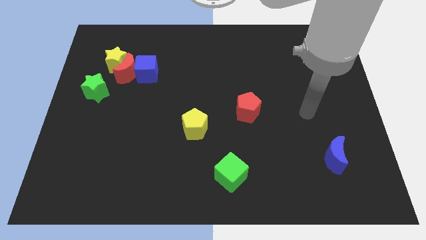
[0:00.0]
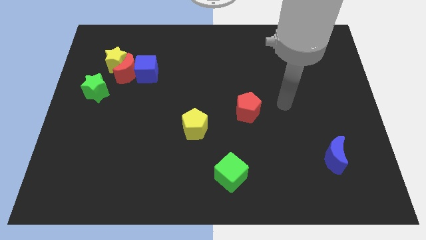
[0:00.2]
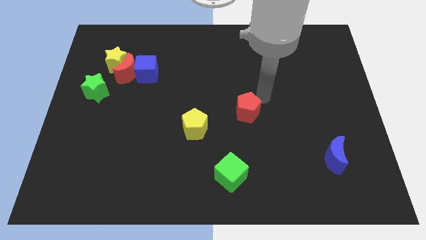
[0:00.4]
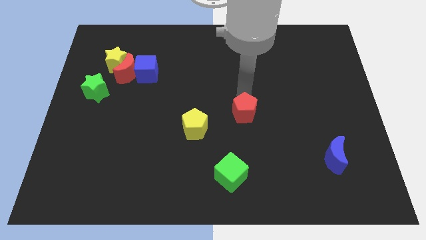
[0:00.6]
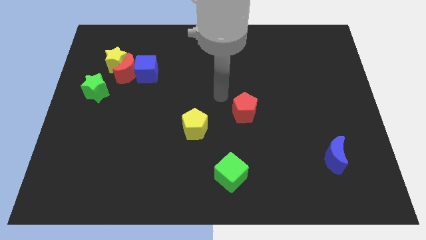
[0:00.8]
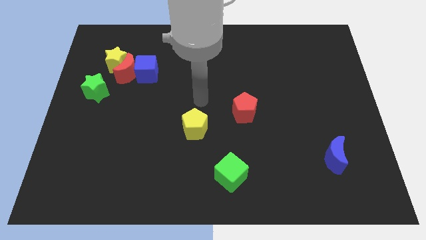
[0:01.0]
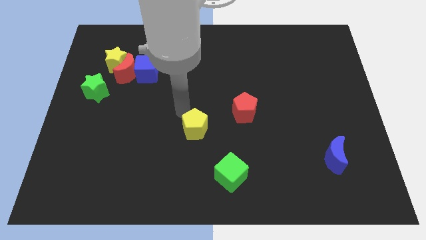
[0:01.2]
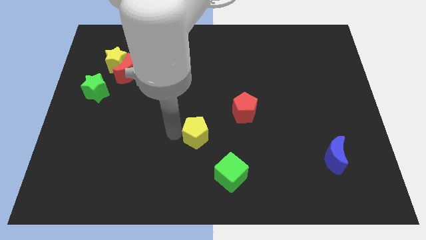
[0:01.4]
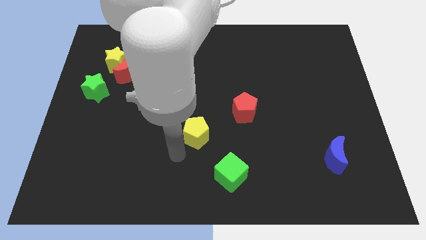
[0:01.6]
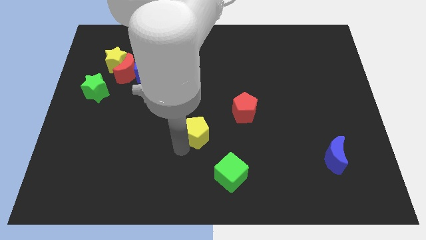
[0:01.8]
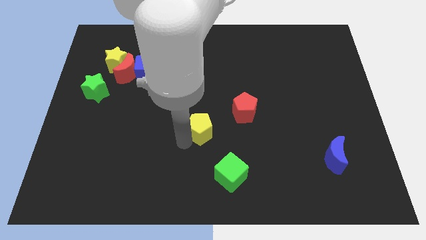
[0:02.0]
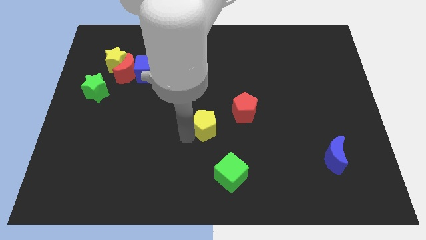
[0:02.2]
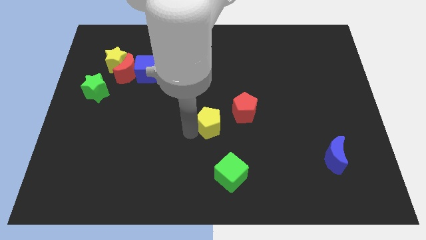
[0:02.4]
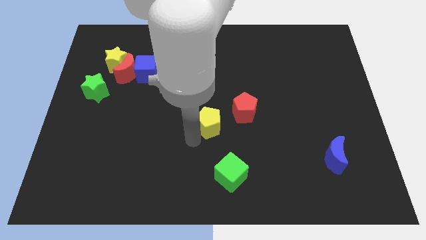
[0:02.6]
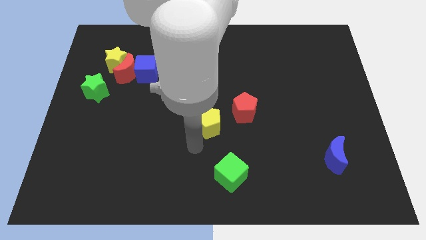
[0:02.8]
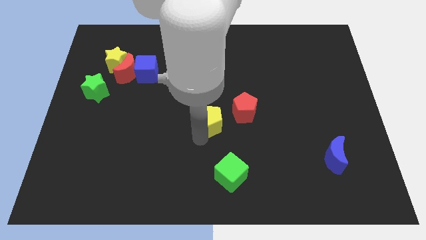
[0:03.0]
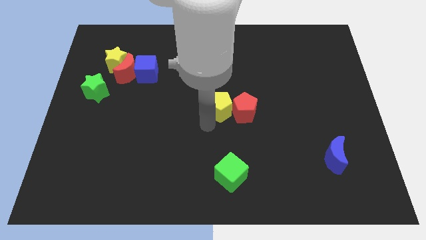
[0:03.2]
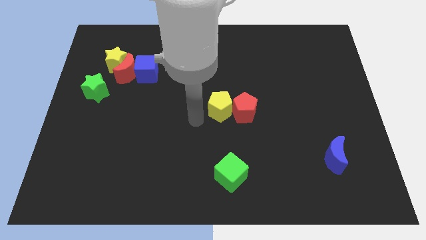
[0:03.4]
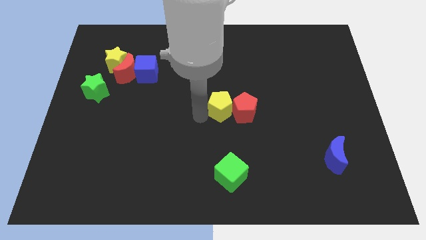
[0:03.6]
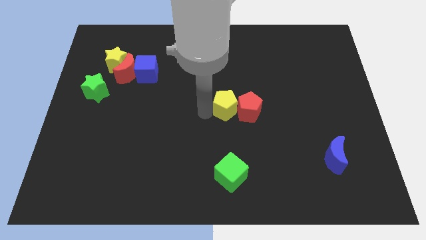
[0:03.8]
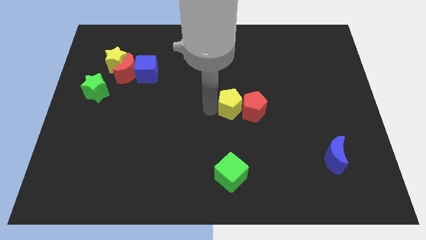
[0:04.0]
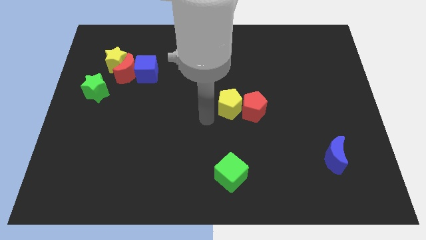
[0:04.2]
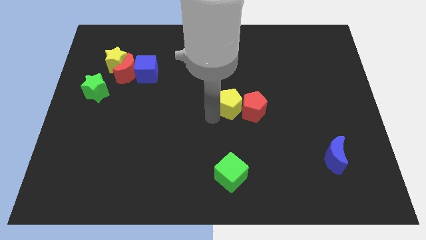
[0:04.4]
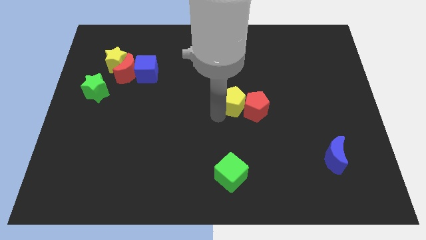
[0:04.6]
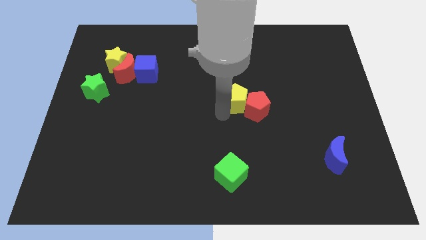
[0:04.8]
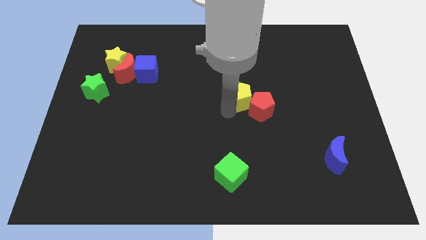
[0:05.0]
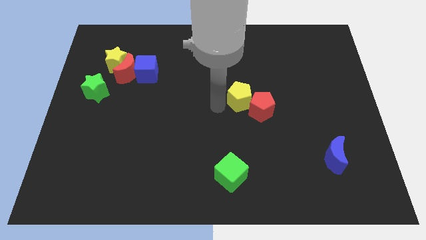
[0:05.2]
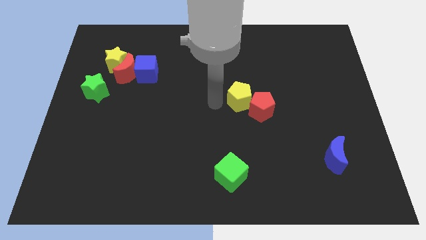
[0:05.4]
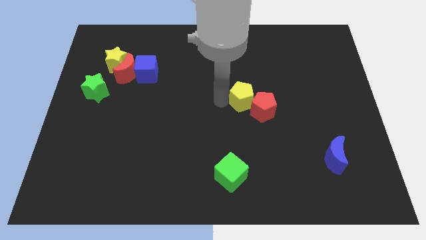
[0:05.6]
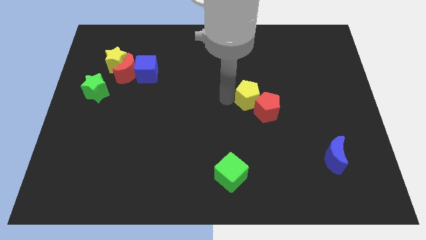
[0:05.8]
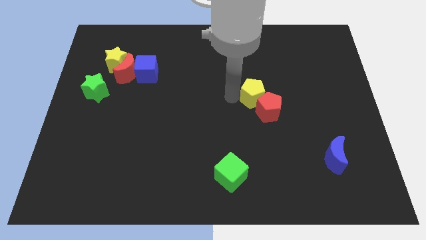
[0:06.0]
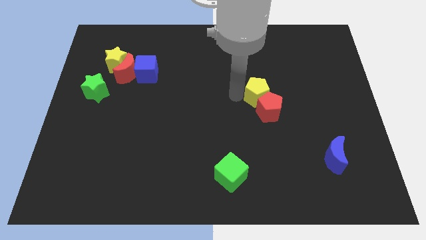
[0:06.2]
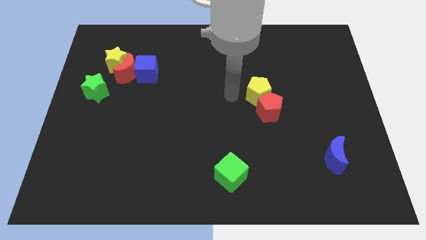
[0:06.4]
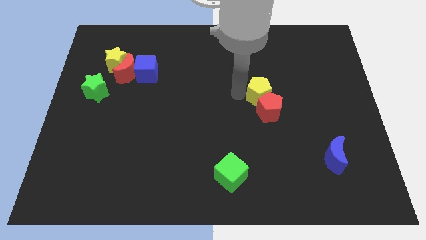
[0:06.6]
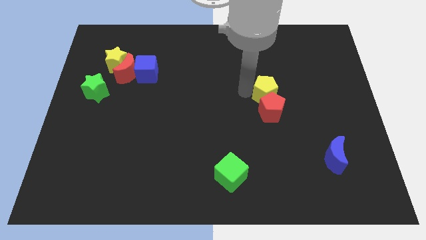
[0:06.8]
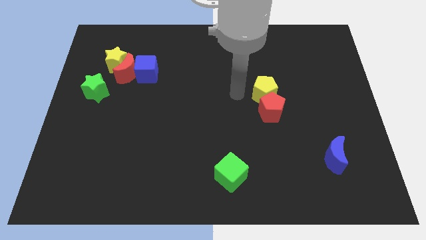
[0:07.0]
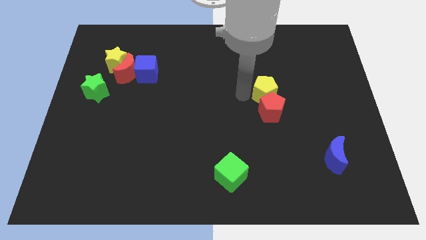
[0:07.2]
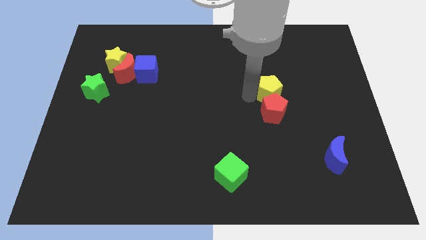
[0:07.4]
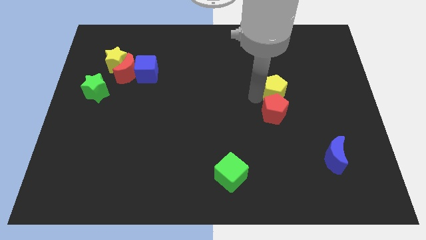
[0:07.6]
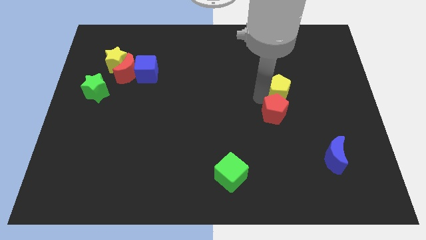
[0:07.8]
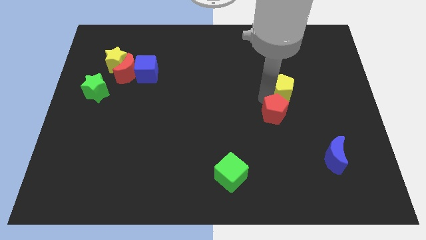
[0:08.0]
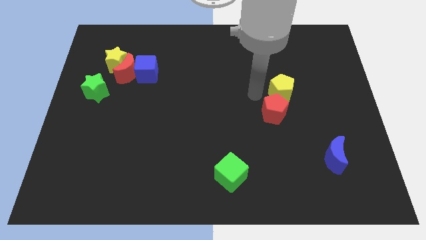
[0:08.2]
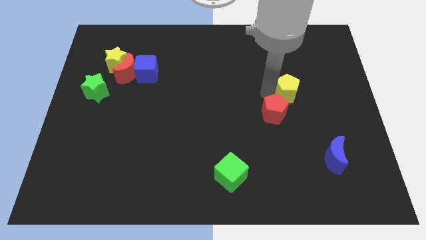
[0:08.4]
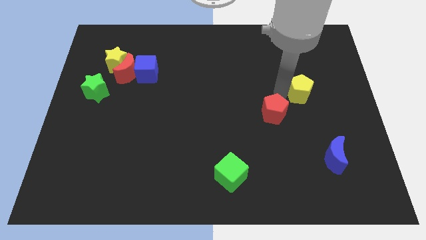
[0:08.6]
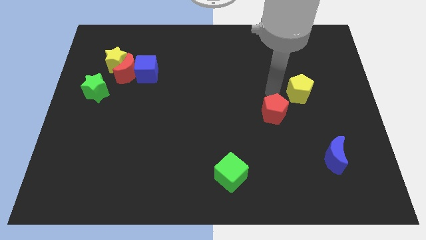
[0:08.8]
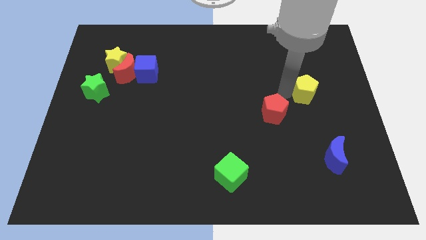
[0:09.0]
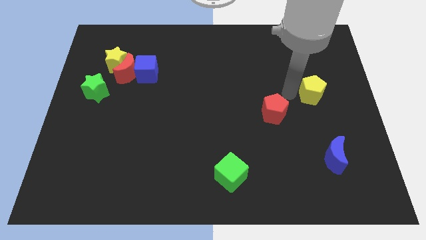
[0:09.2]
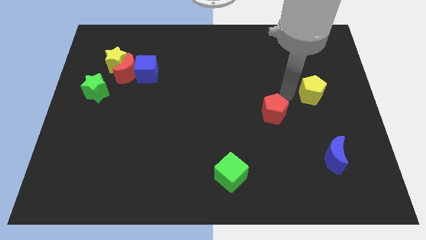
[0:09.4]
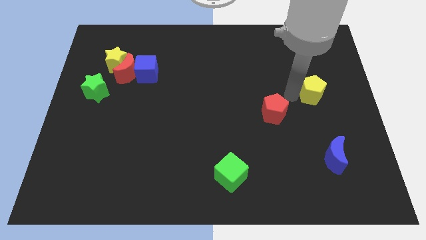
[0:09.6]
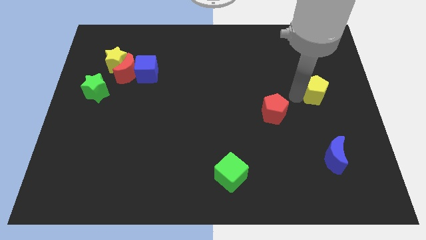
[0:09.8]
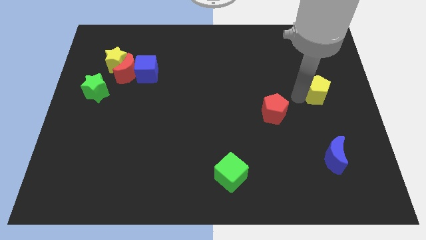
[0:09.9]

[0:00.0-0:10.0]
put the yellow pentagon to the center right

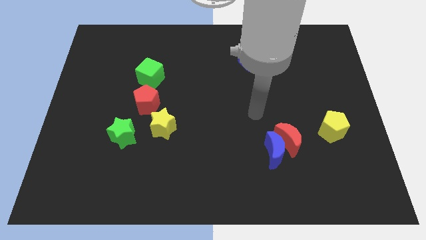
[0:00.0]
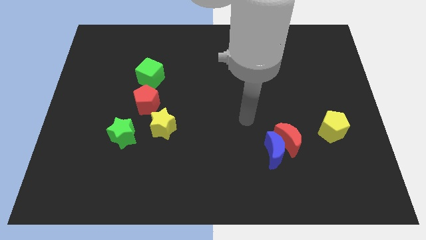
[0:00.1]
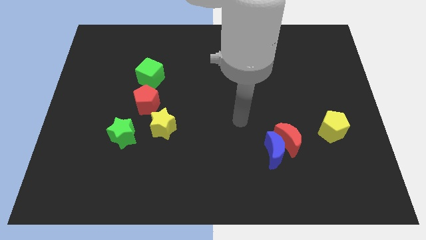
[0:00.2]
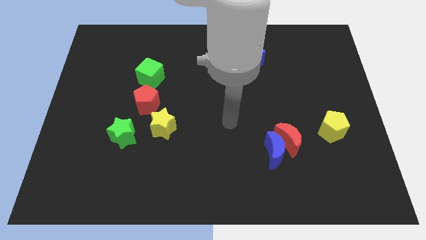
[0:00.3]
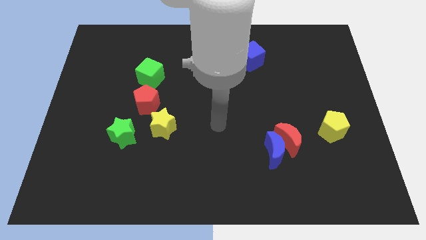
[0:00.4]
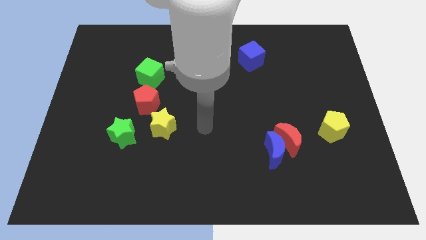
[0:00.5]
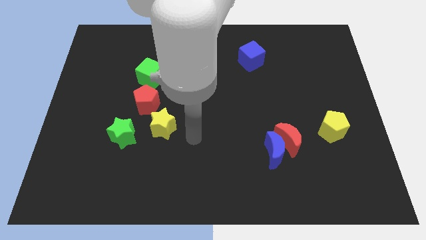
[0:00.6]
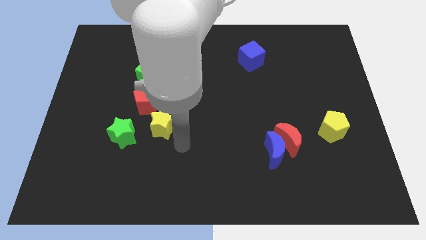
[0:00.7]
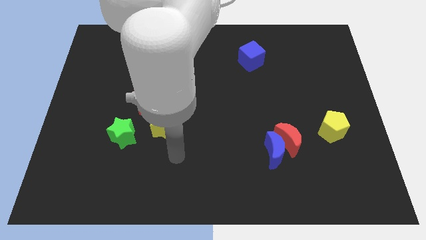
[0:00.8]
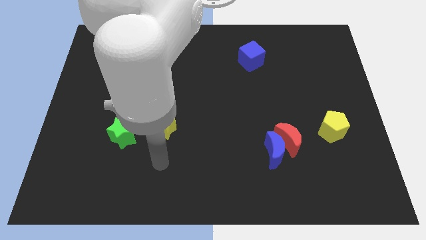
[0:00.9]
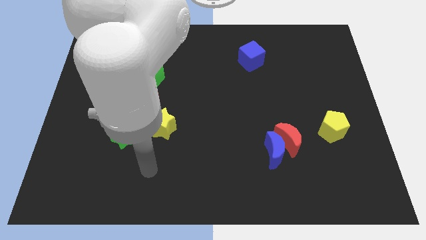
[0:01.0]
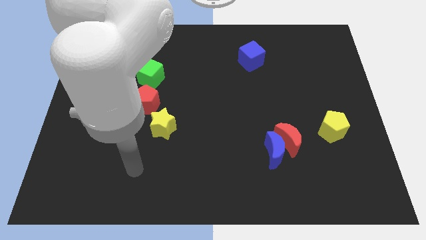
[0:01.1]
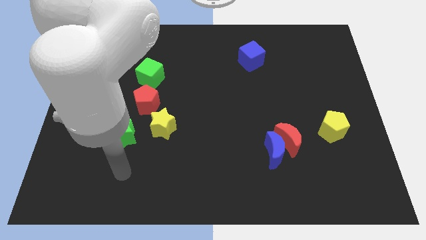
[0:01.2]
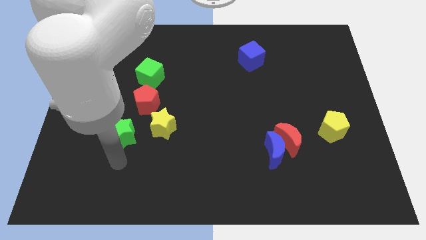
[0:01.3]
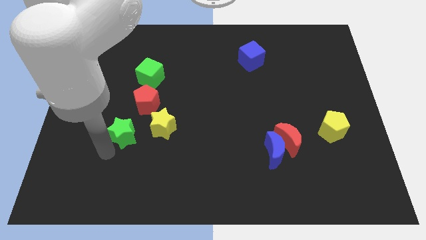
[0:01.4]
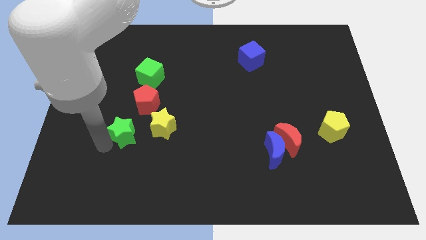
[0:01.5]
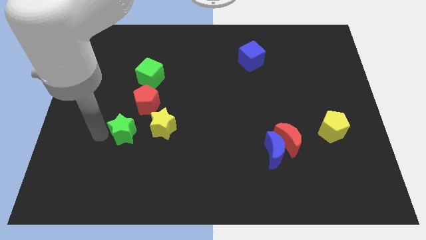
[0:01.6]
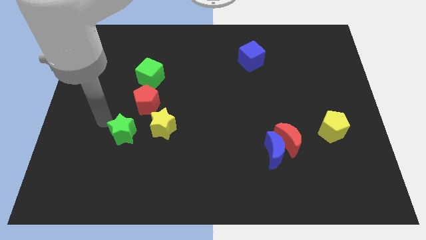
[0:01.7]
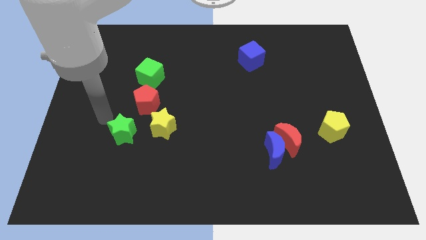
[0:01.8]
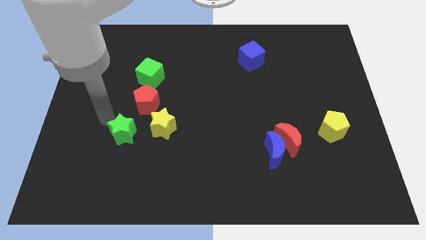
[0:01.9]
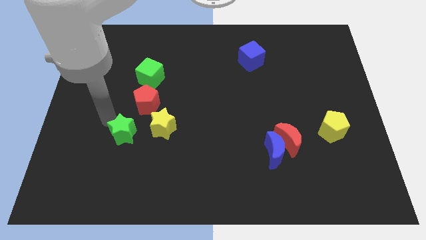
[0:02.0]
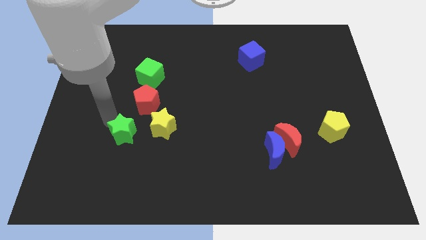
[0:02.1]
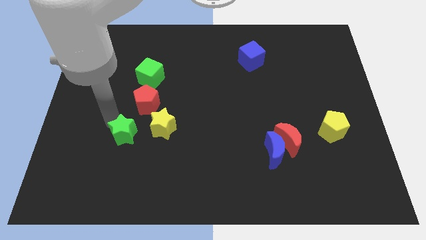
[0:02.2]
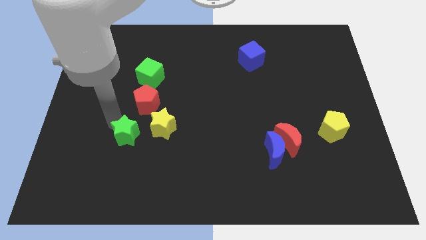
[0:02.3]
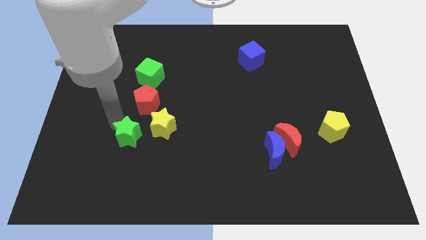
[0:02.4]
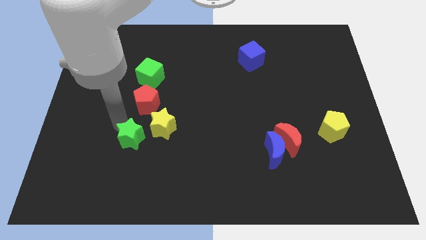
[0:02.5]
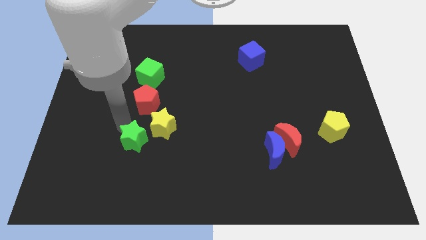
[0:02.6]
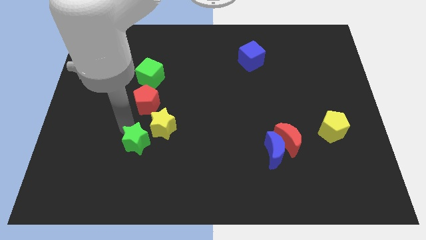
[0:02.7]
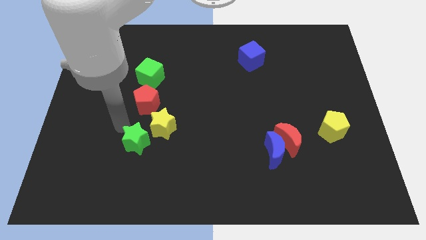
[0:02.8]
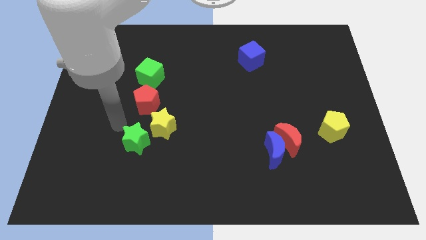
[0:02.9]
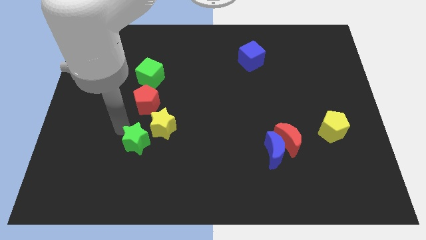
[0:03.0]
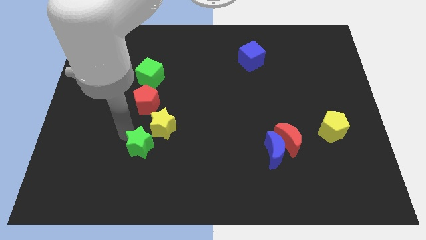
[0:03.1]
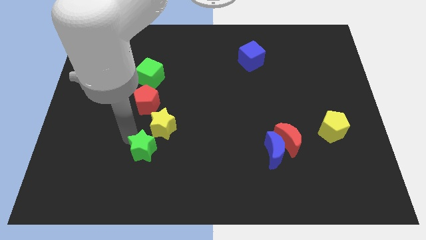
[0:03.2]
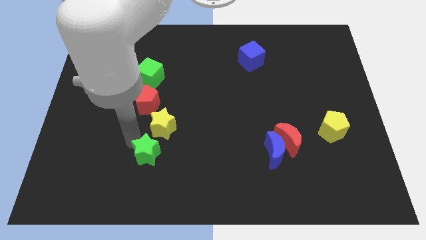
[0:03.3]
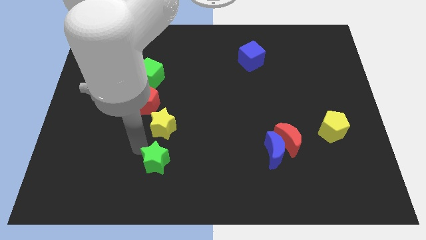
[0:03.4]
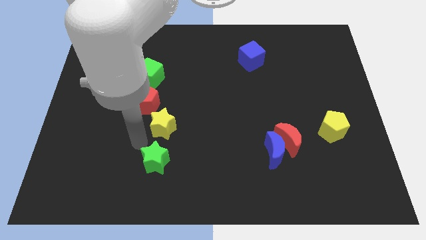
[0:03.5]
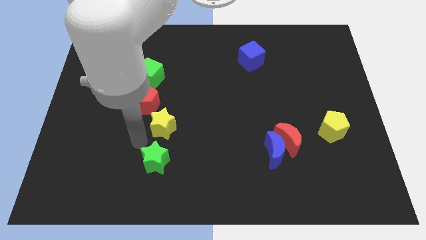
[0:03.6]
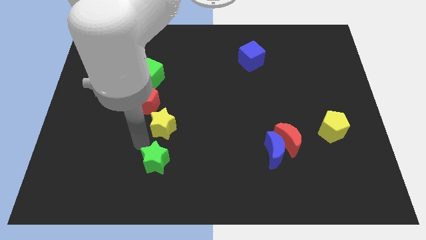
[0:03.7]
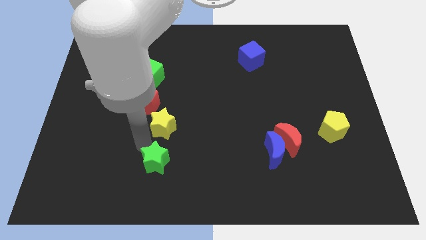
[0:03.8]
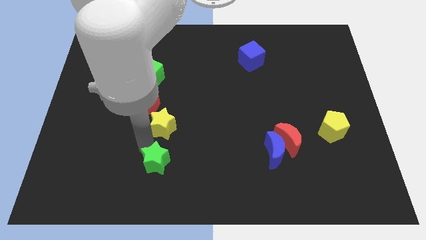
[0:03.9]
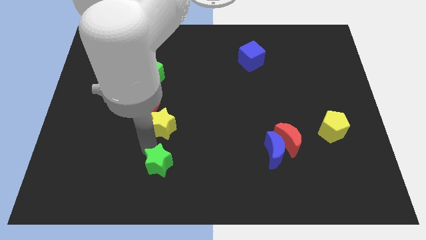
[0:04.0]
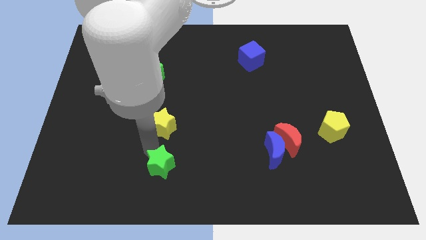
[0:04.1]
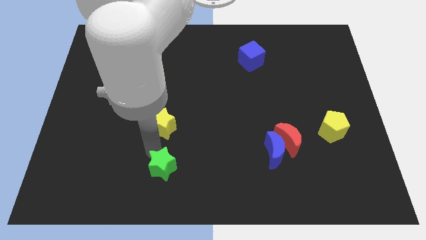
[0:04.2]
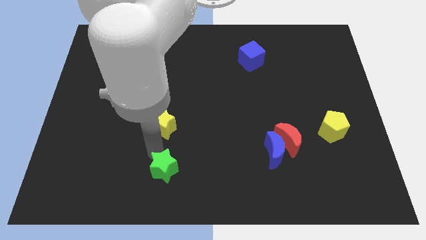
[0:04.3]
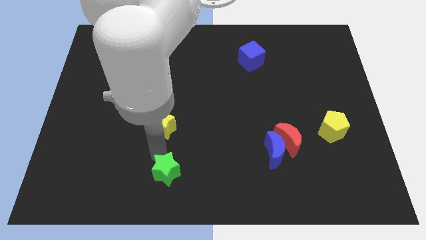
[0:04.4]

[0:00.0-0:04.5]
put the green star to the bottom
